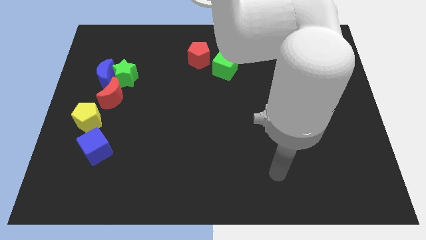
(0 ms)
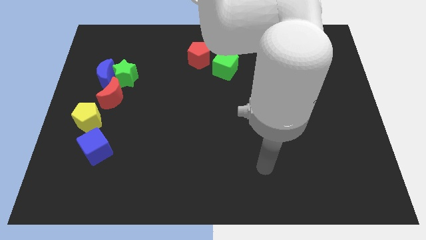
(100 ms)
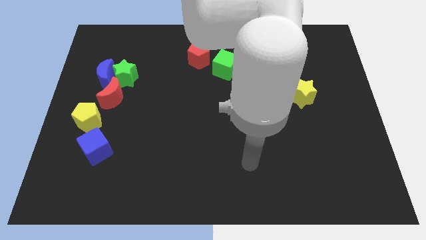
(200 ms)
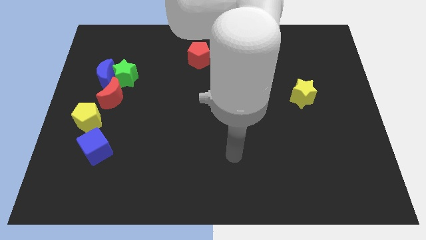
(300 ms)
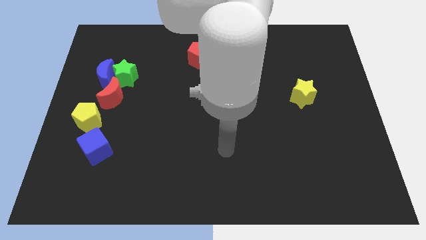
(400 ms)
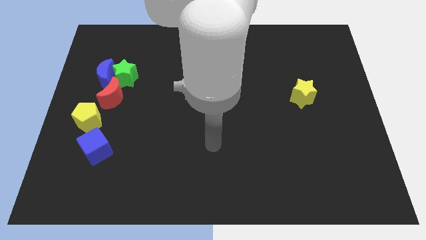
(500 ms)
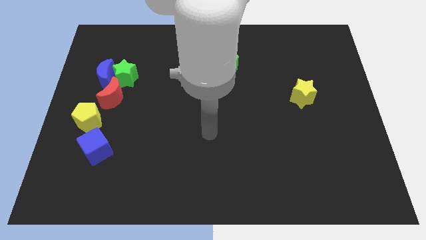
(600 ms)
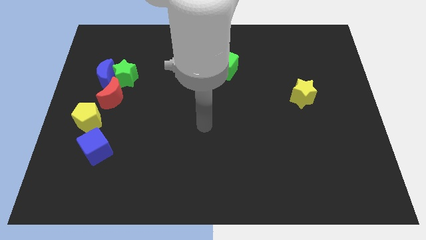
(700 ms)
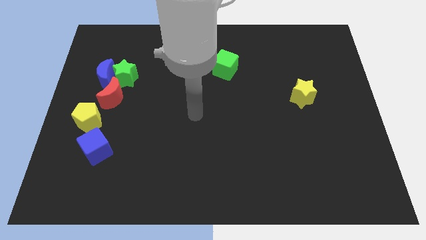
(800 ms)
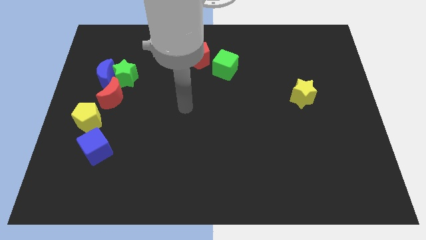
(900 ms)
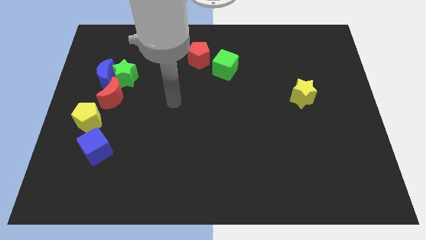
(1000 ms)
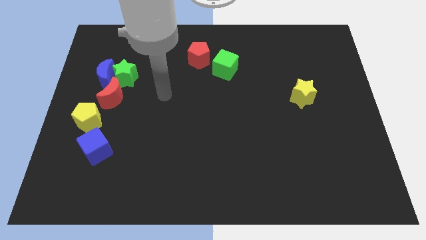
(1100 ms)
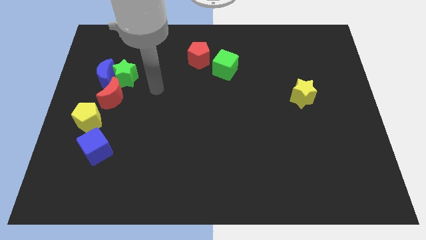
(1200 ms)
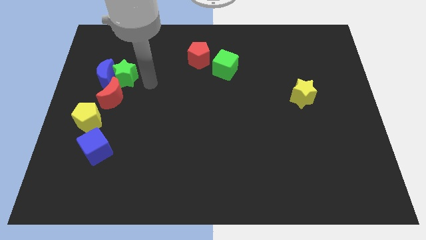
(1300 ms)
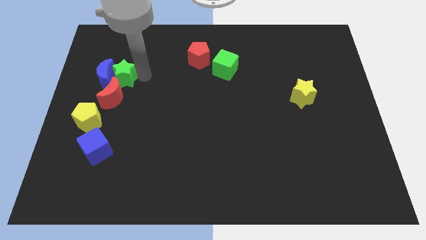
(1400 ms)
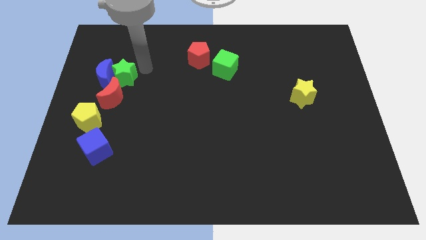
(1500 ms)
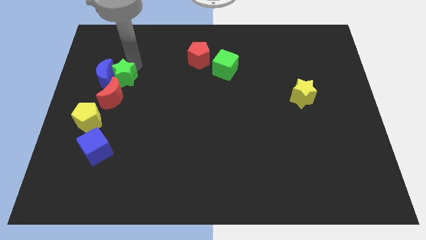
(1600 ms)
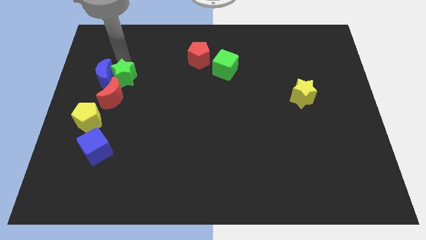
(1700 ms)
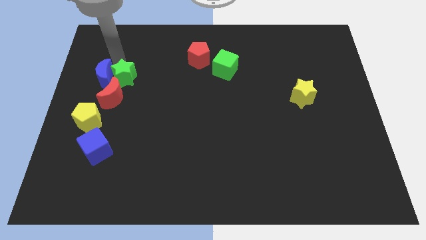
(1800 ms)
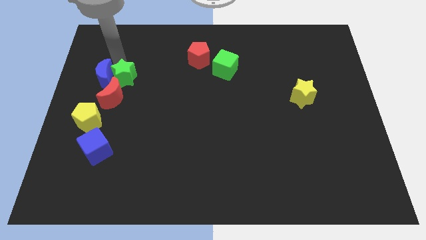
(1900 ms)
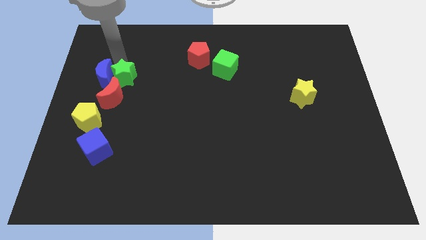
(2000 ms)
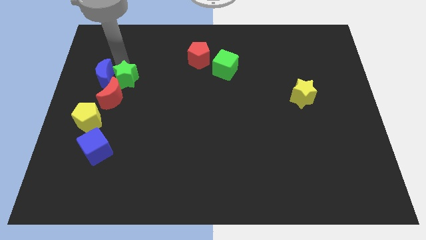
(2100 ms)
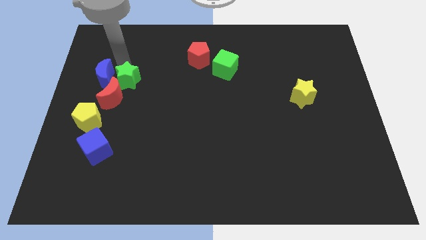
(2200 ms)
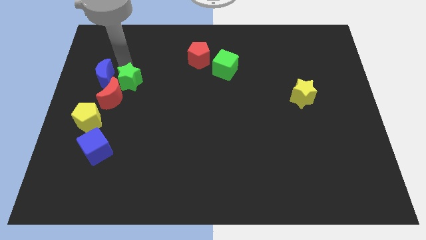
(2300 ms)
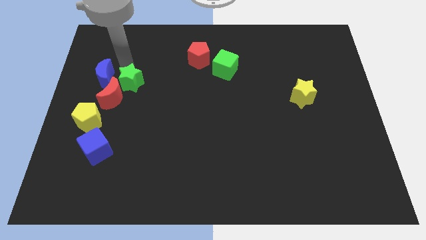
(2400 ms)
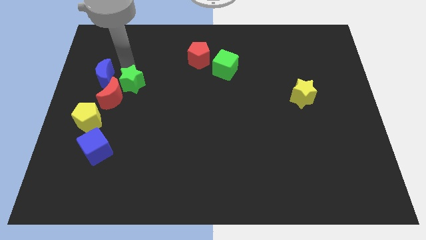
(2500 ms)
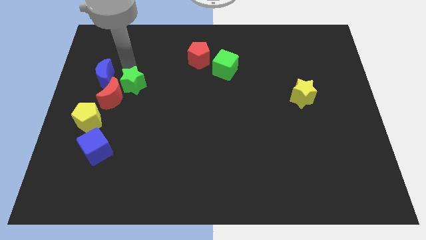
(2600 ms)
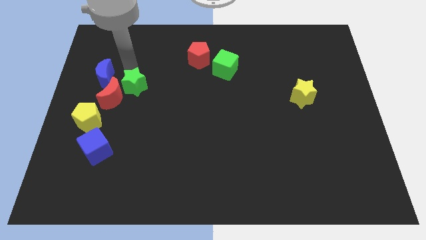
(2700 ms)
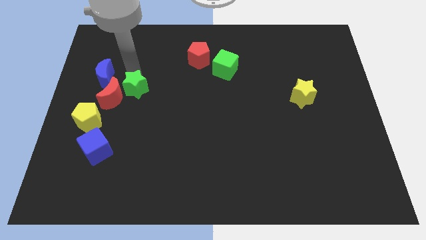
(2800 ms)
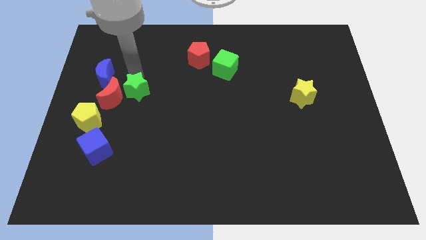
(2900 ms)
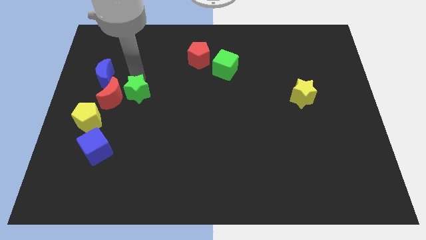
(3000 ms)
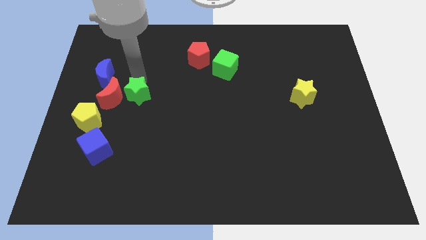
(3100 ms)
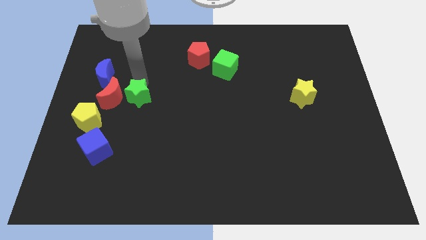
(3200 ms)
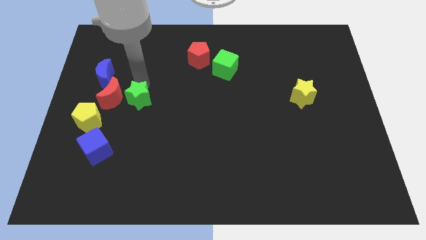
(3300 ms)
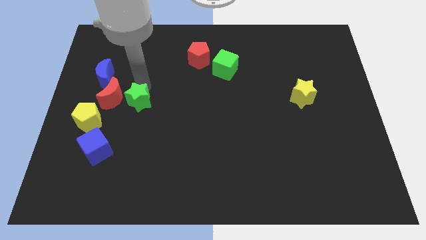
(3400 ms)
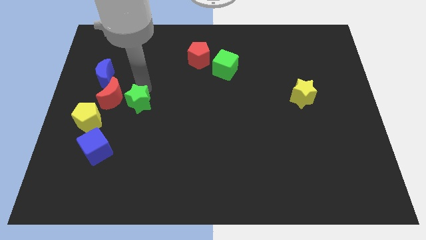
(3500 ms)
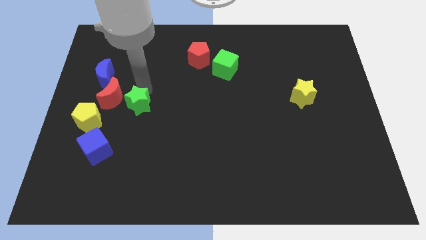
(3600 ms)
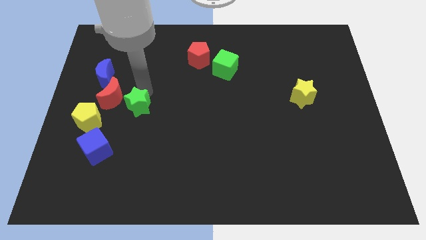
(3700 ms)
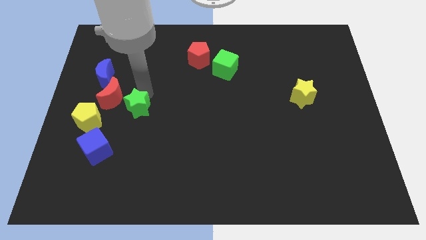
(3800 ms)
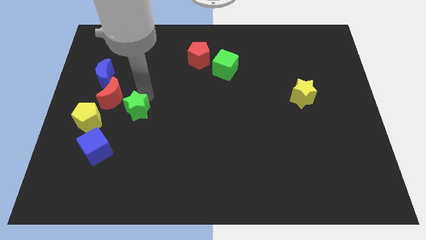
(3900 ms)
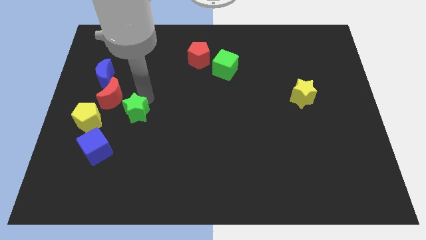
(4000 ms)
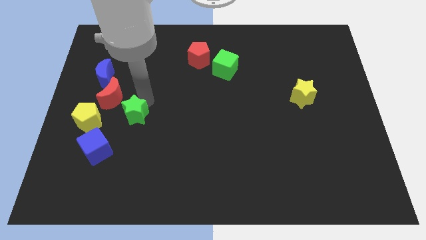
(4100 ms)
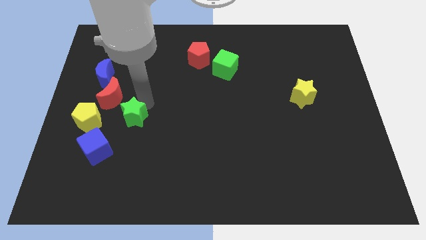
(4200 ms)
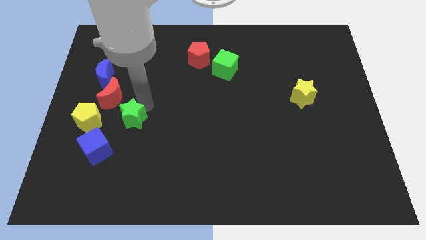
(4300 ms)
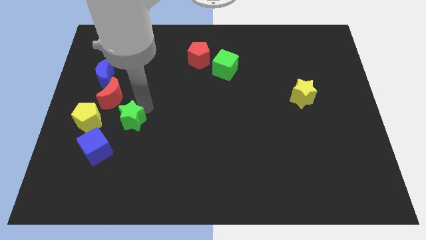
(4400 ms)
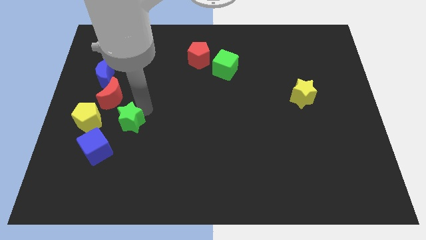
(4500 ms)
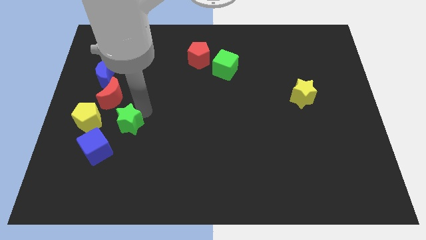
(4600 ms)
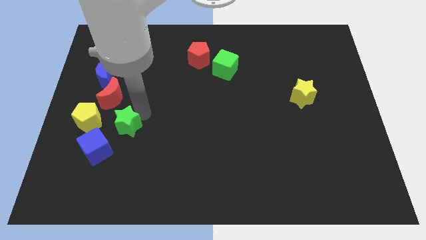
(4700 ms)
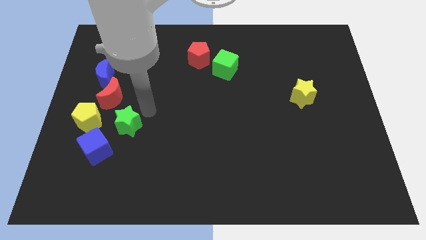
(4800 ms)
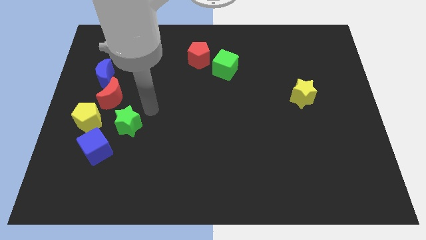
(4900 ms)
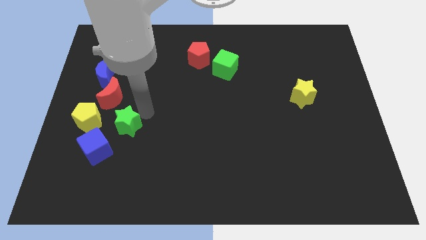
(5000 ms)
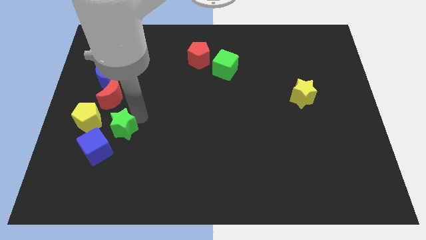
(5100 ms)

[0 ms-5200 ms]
slide the green star to the bottom right of the yellow pentagon

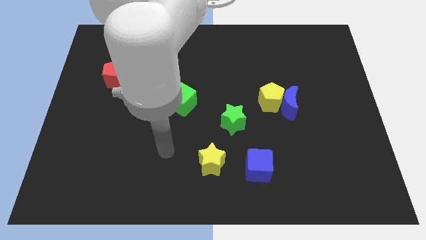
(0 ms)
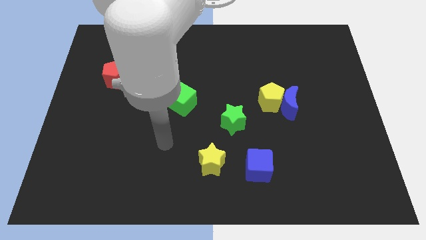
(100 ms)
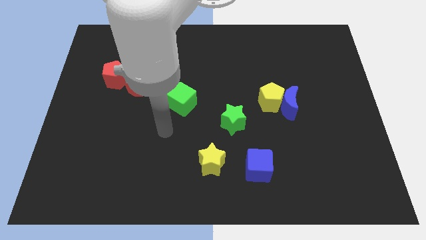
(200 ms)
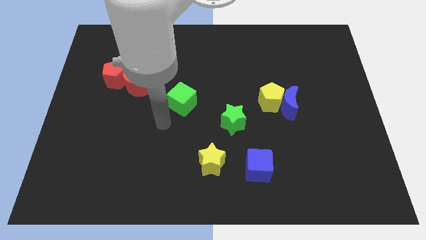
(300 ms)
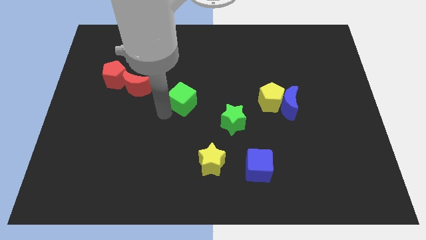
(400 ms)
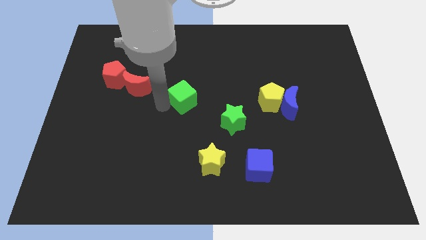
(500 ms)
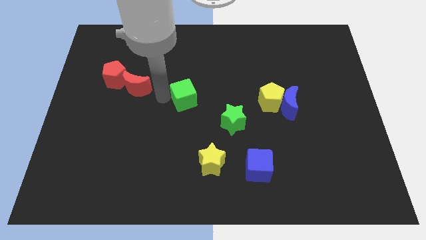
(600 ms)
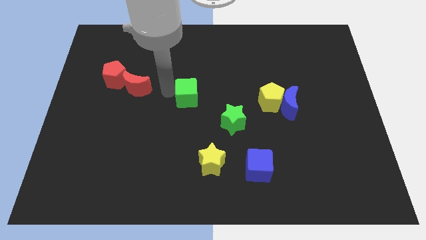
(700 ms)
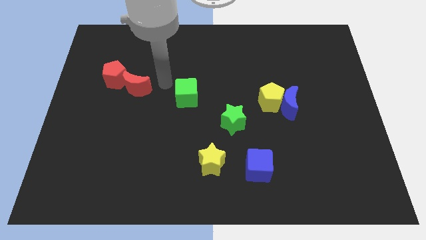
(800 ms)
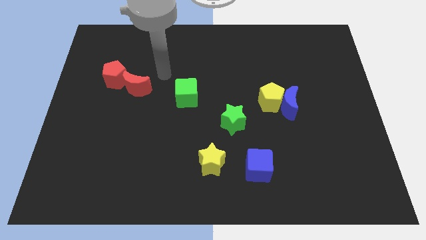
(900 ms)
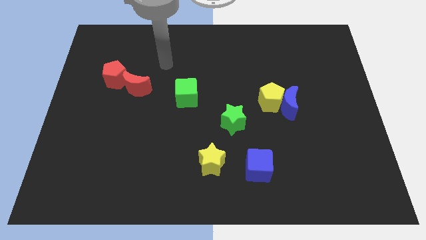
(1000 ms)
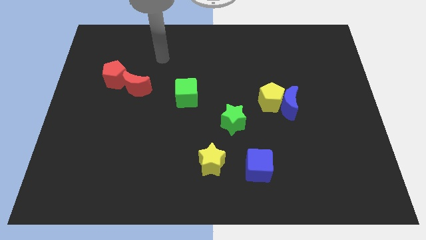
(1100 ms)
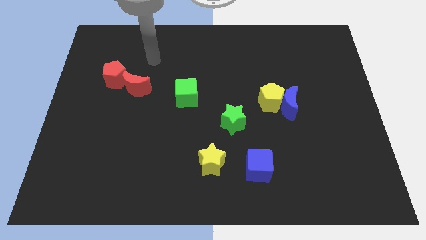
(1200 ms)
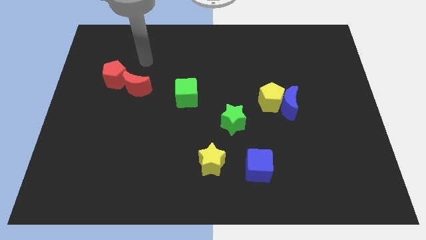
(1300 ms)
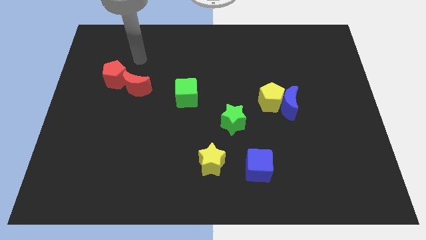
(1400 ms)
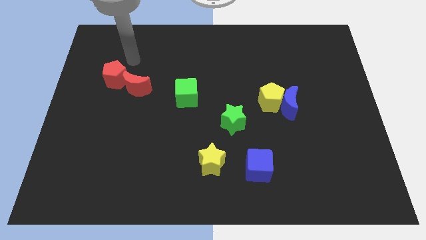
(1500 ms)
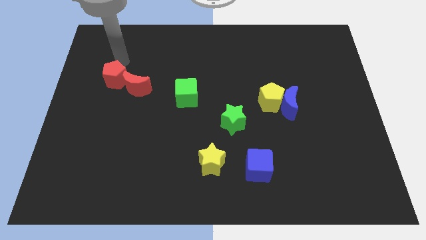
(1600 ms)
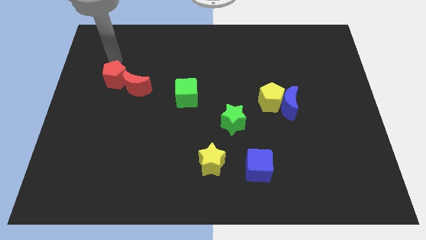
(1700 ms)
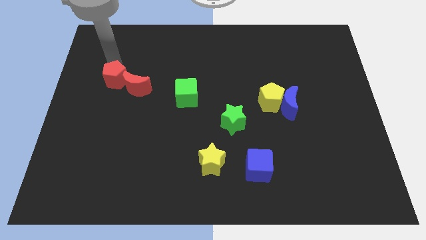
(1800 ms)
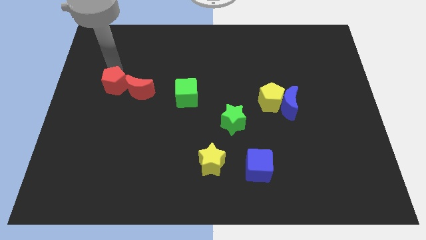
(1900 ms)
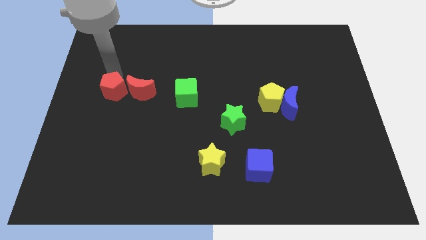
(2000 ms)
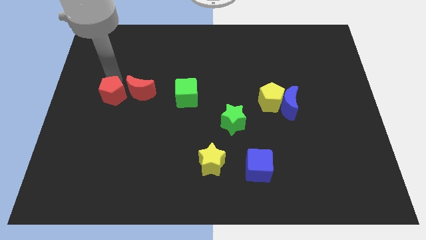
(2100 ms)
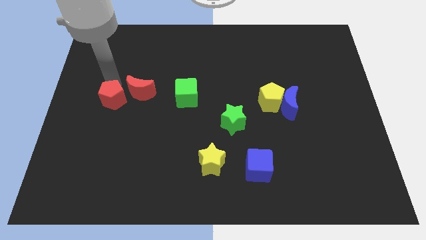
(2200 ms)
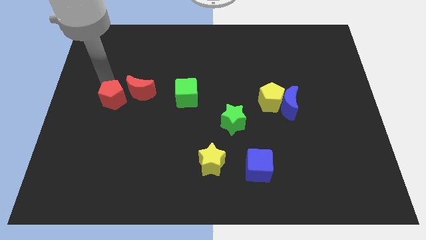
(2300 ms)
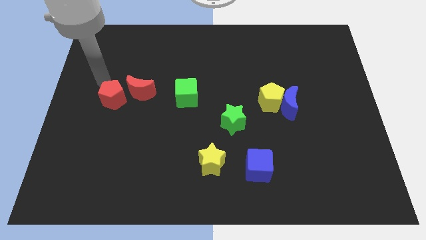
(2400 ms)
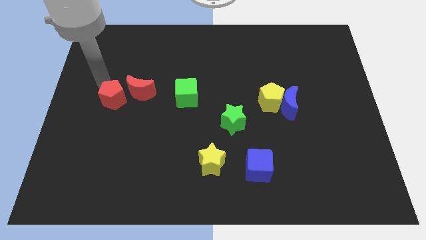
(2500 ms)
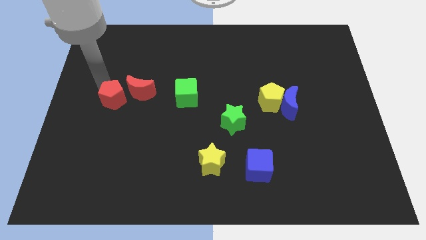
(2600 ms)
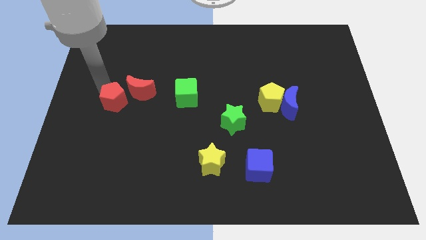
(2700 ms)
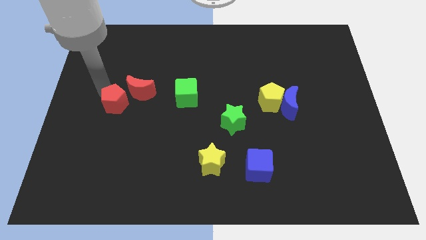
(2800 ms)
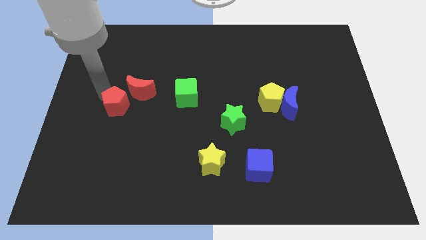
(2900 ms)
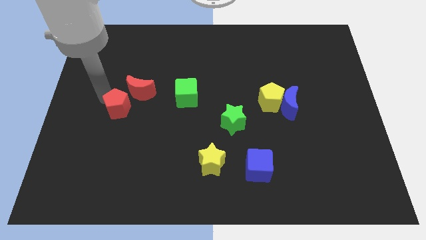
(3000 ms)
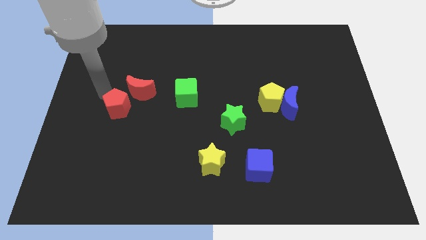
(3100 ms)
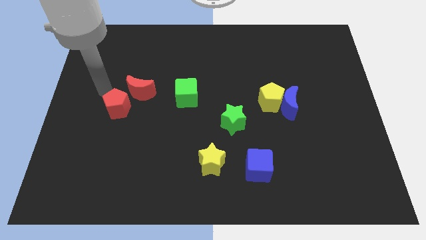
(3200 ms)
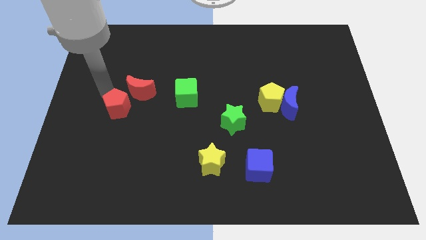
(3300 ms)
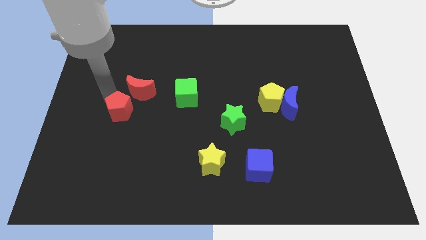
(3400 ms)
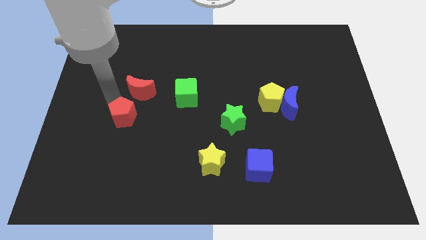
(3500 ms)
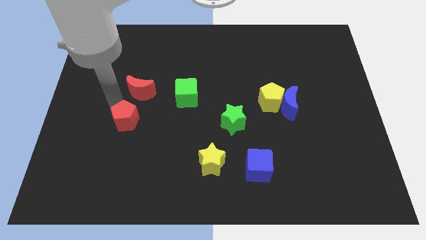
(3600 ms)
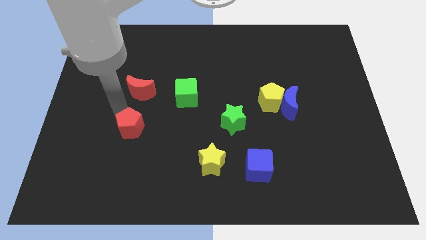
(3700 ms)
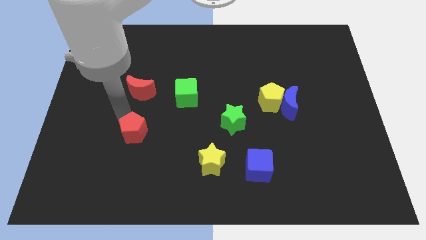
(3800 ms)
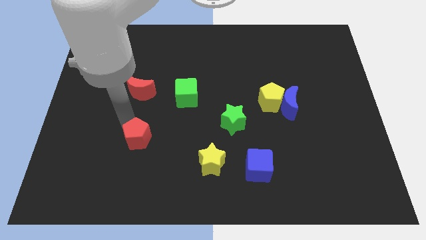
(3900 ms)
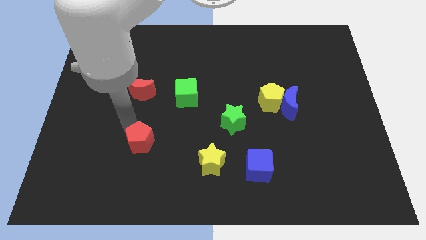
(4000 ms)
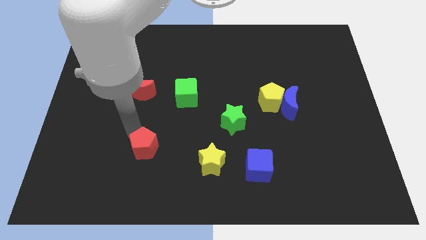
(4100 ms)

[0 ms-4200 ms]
push the red pentagon to the left of the yellow star
